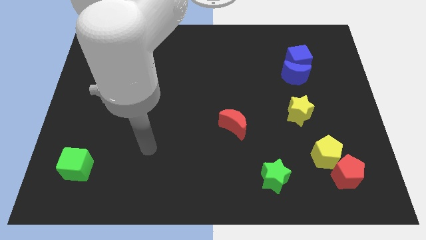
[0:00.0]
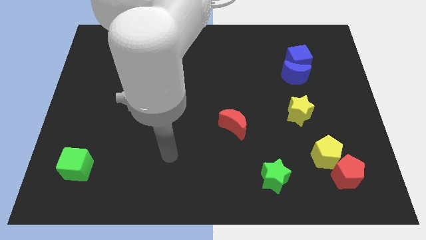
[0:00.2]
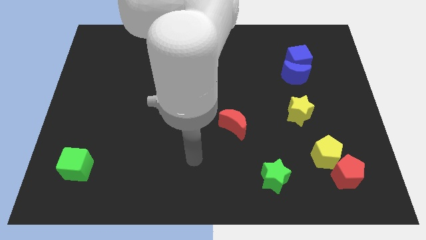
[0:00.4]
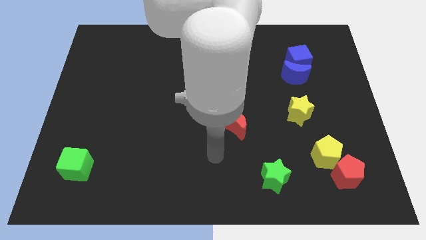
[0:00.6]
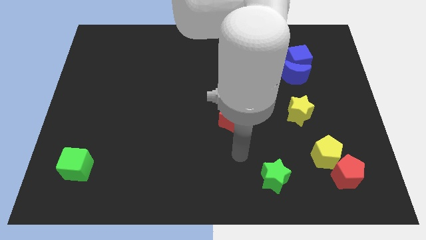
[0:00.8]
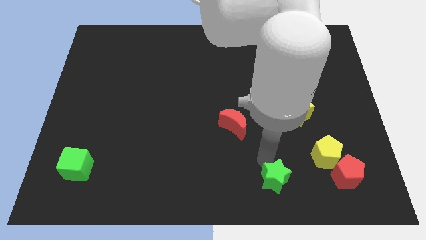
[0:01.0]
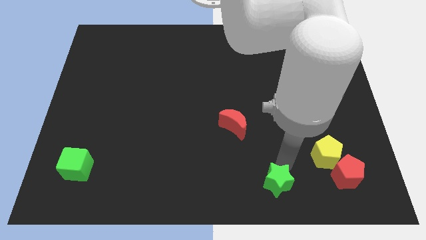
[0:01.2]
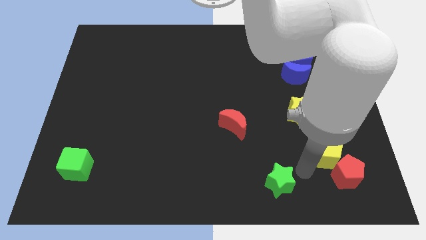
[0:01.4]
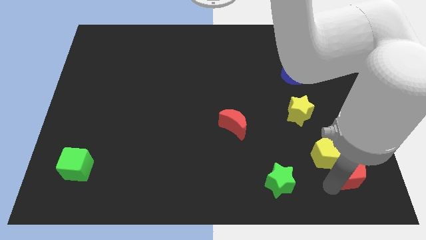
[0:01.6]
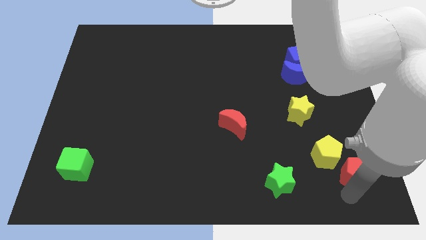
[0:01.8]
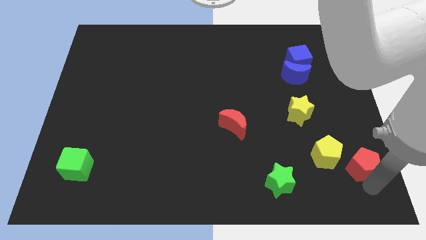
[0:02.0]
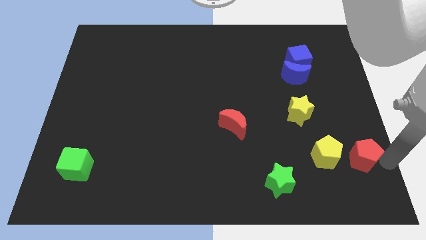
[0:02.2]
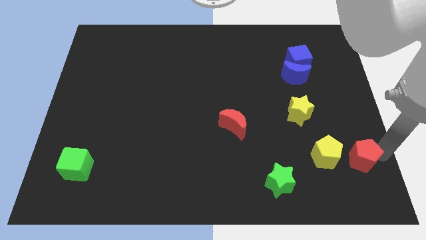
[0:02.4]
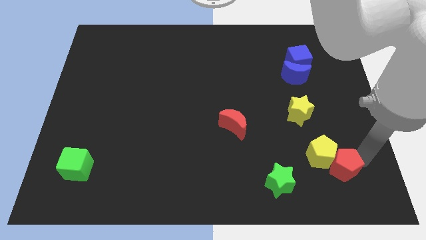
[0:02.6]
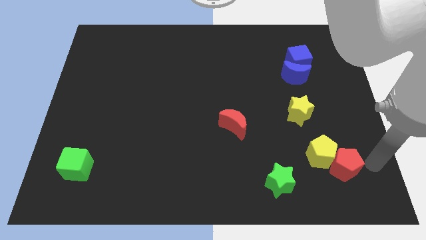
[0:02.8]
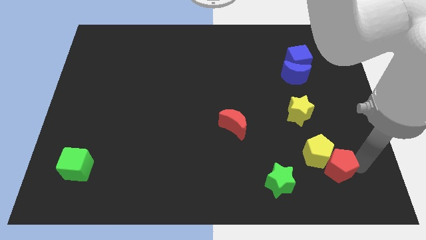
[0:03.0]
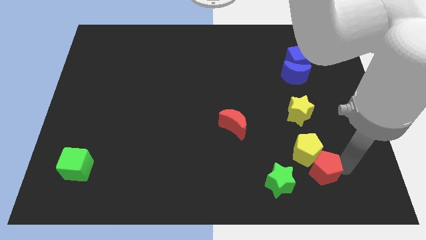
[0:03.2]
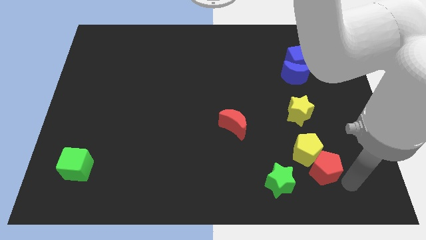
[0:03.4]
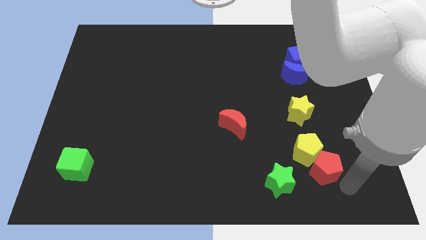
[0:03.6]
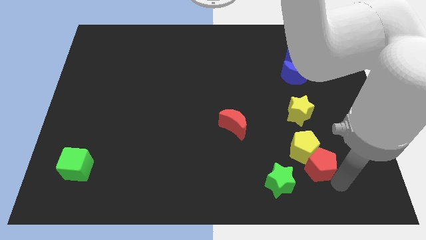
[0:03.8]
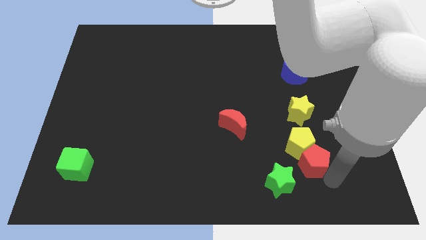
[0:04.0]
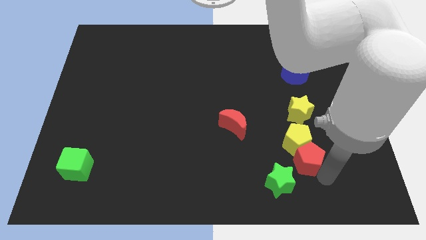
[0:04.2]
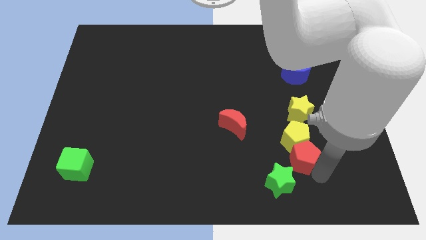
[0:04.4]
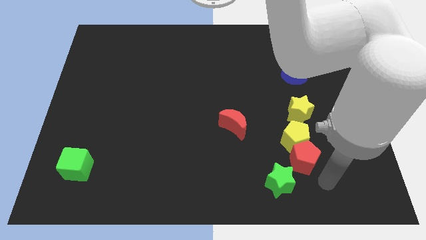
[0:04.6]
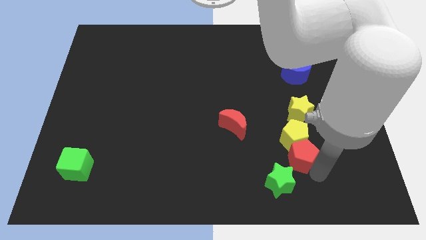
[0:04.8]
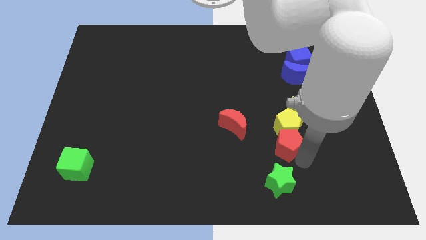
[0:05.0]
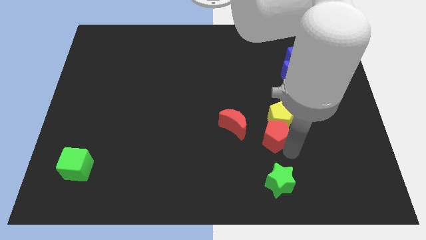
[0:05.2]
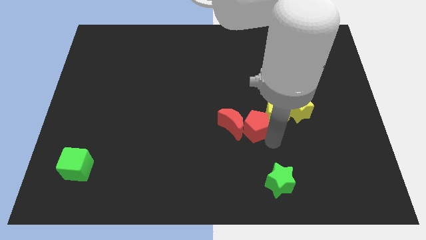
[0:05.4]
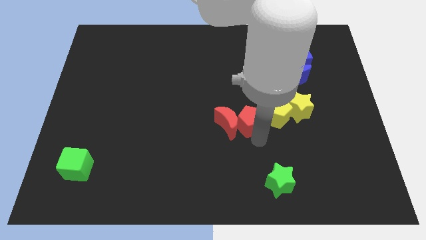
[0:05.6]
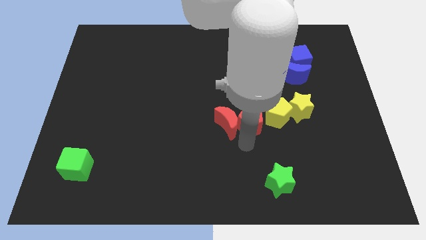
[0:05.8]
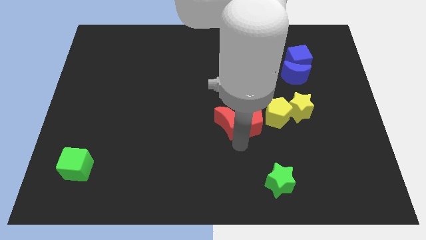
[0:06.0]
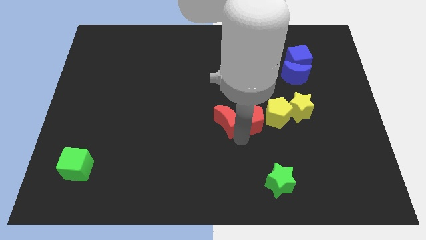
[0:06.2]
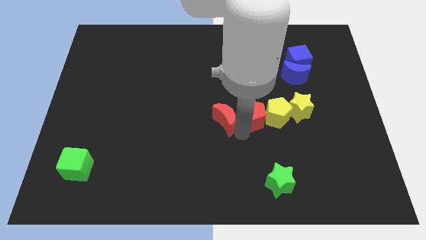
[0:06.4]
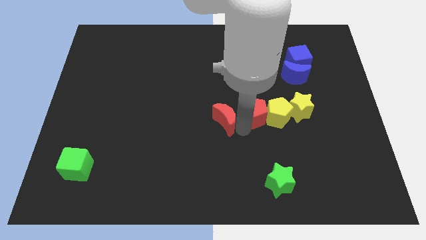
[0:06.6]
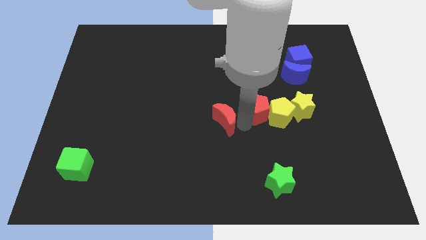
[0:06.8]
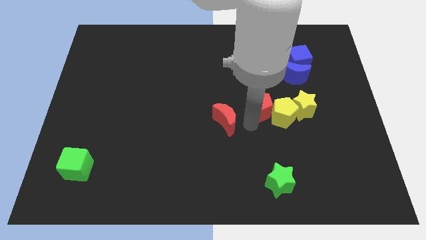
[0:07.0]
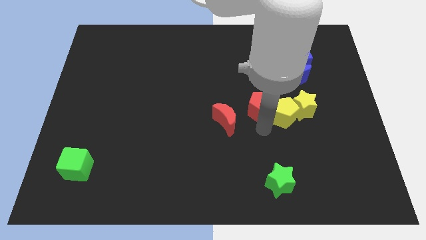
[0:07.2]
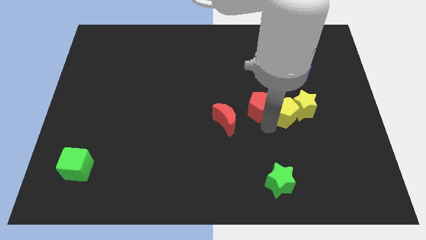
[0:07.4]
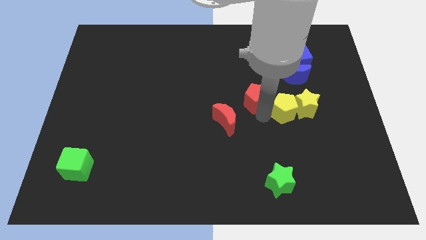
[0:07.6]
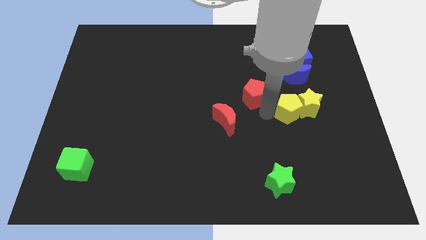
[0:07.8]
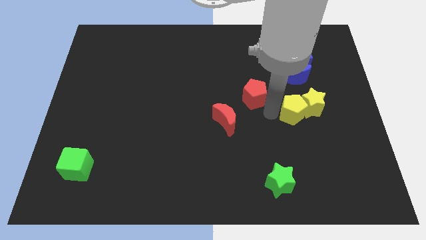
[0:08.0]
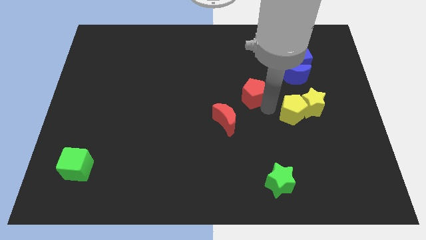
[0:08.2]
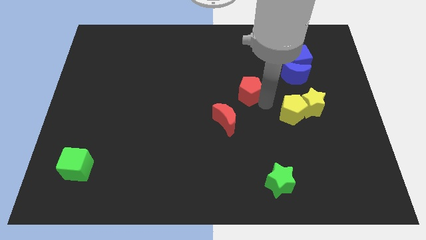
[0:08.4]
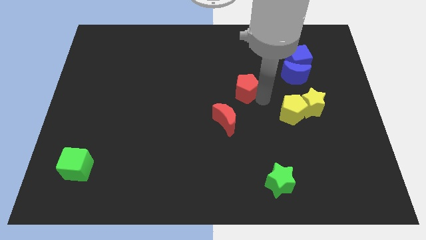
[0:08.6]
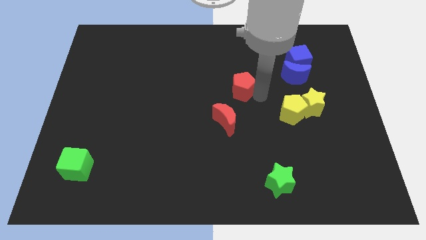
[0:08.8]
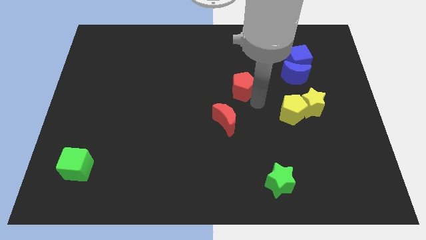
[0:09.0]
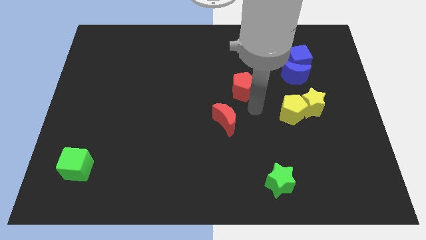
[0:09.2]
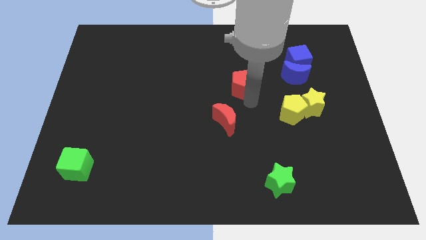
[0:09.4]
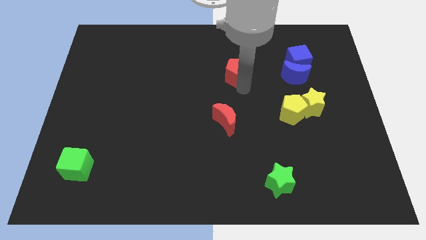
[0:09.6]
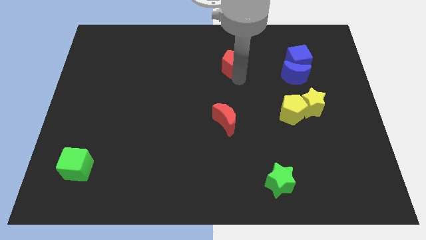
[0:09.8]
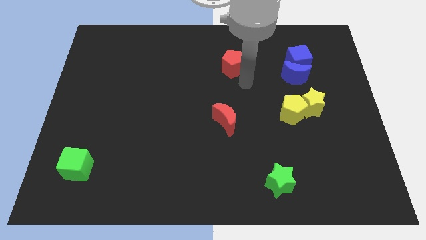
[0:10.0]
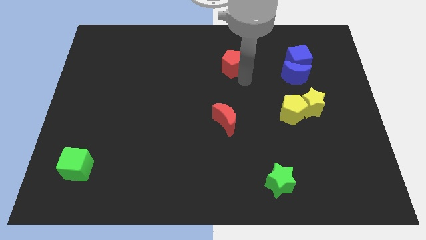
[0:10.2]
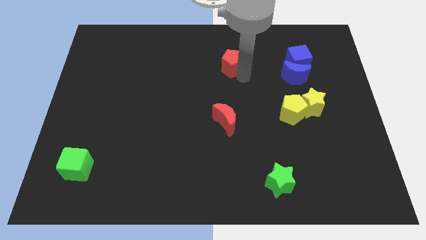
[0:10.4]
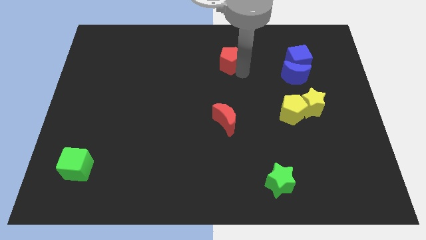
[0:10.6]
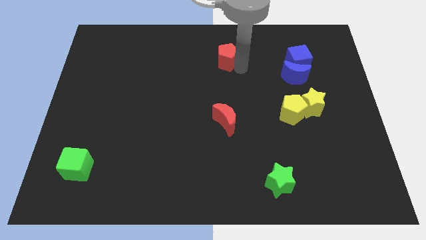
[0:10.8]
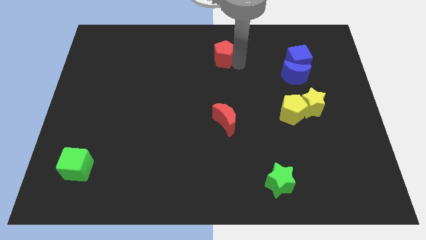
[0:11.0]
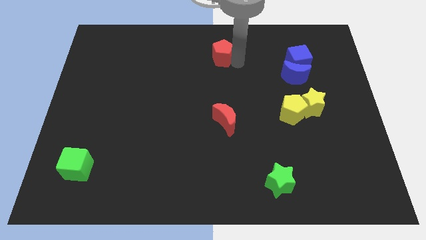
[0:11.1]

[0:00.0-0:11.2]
slide the red pentagon to the towards your base
